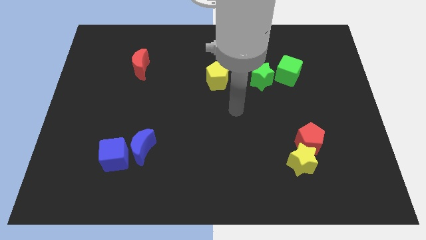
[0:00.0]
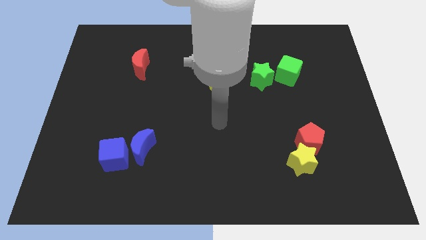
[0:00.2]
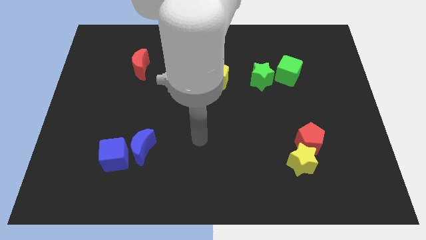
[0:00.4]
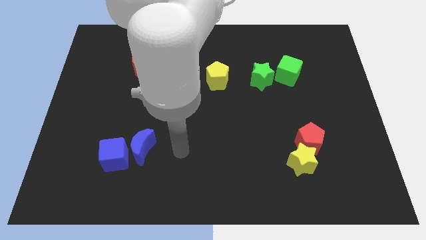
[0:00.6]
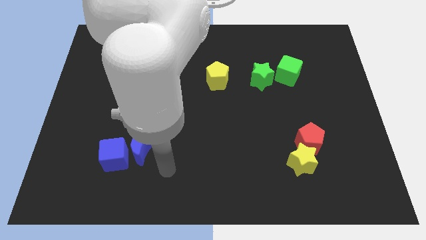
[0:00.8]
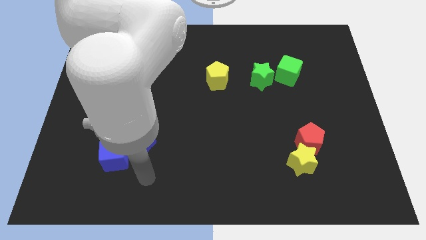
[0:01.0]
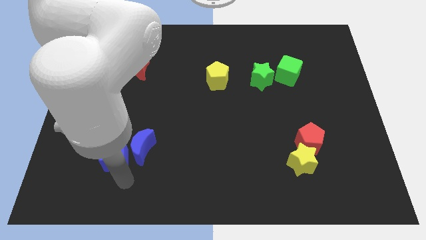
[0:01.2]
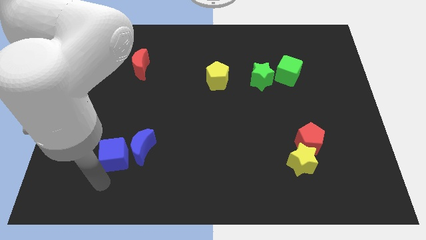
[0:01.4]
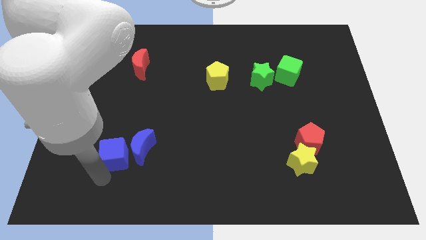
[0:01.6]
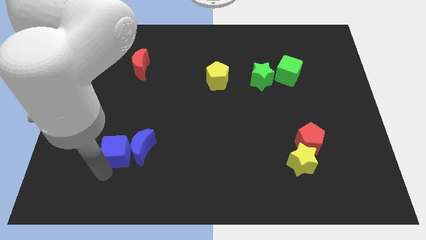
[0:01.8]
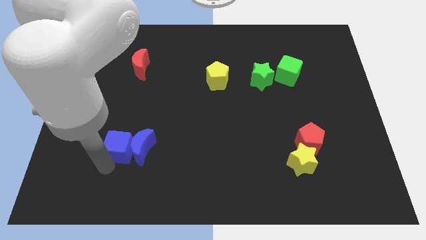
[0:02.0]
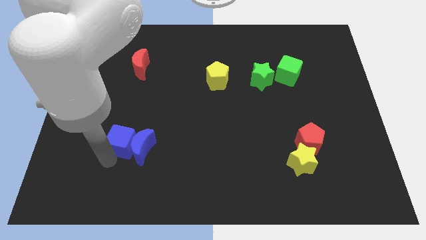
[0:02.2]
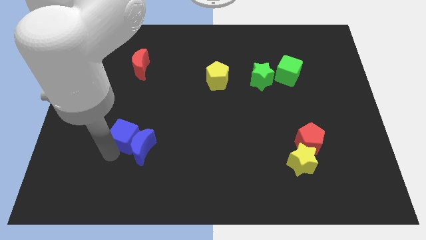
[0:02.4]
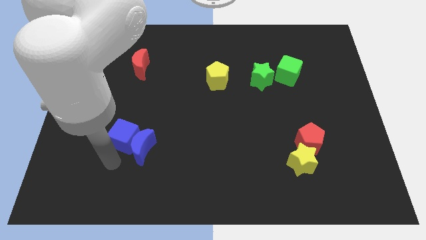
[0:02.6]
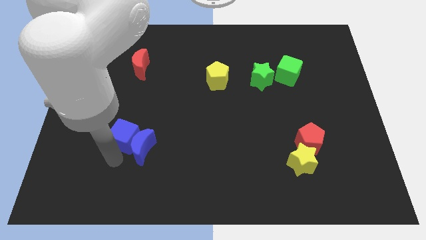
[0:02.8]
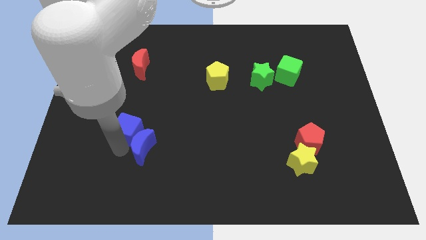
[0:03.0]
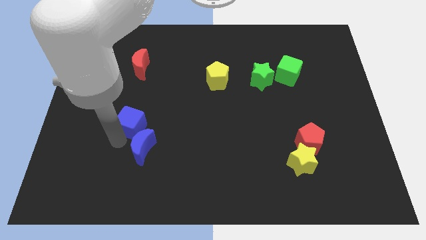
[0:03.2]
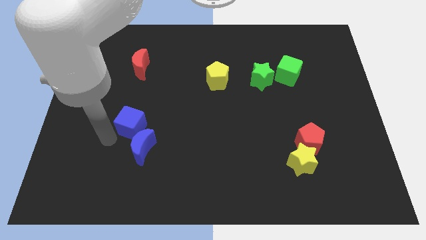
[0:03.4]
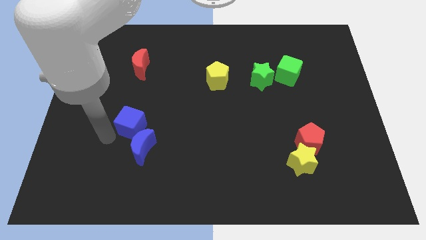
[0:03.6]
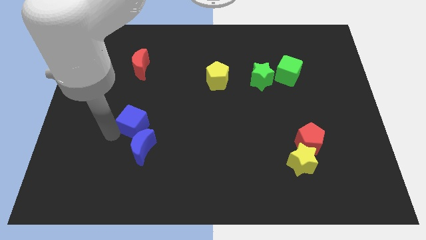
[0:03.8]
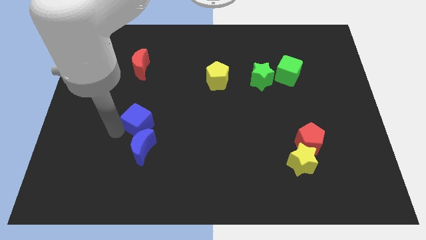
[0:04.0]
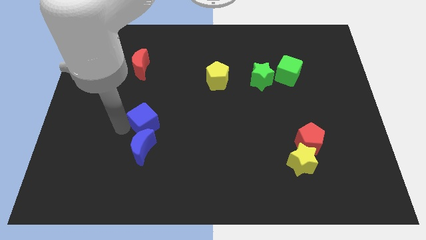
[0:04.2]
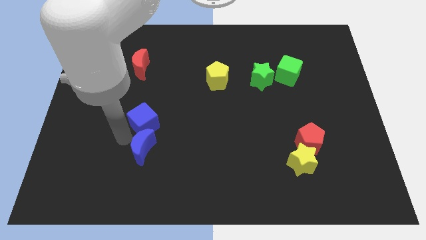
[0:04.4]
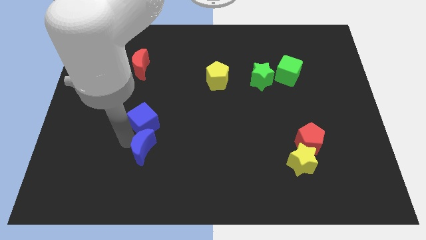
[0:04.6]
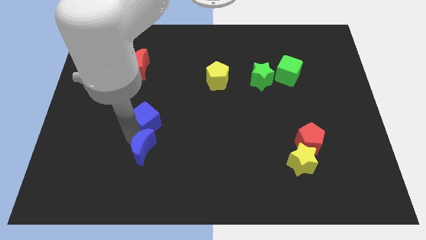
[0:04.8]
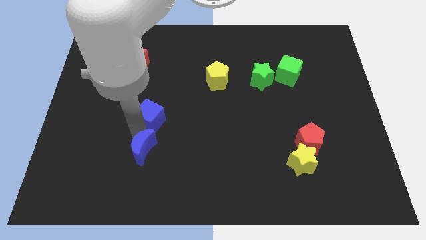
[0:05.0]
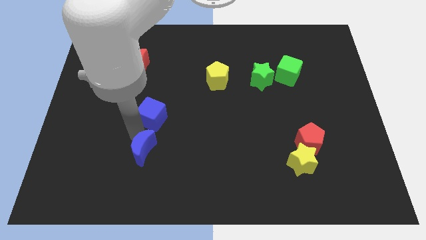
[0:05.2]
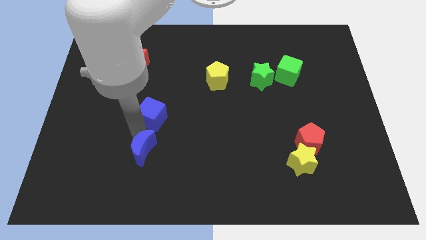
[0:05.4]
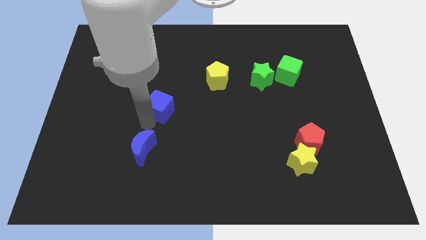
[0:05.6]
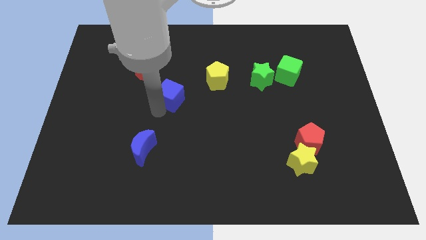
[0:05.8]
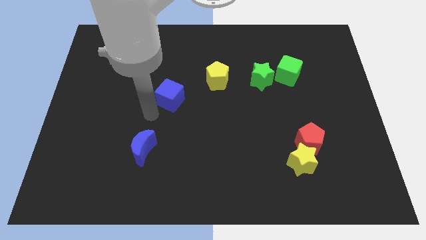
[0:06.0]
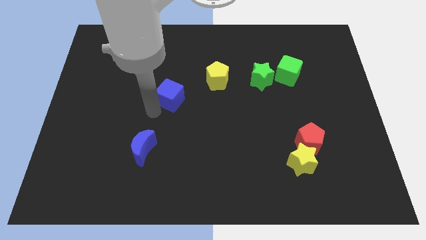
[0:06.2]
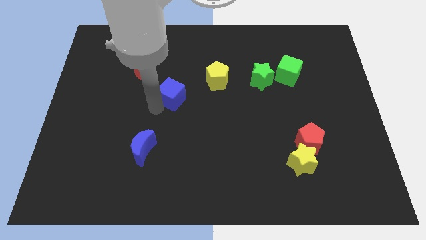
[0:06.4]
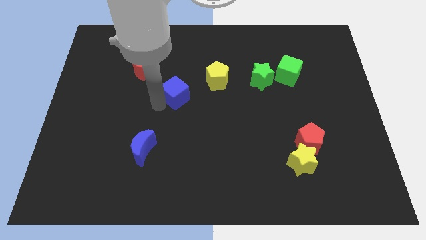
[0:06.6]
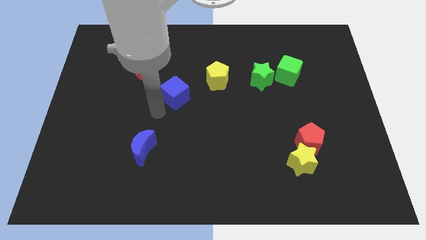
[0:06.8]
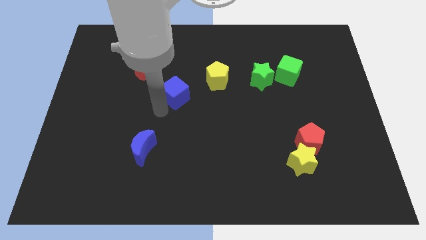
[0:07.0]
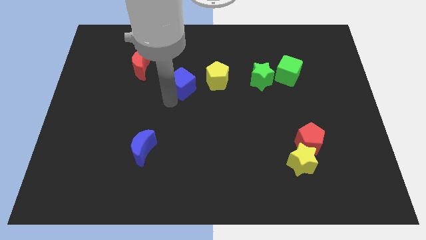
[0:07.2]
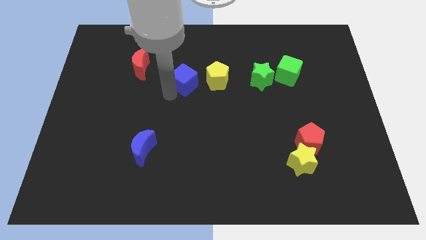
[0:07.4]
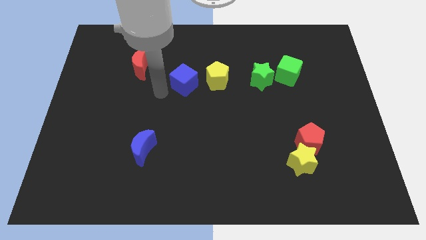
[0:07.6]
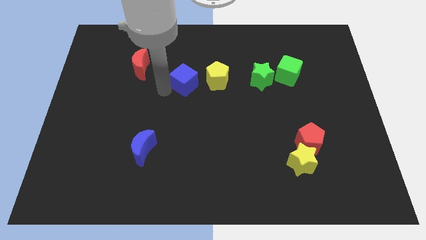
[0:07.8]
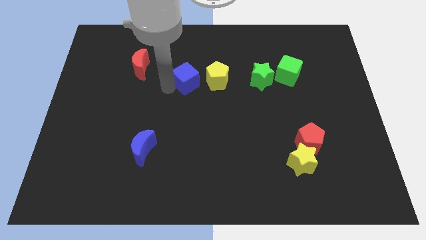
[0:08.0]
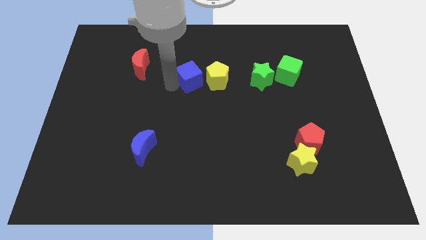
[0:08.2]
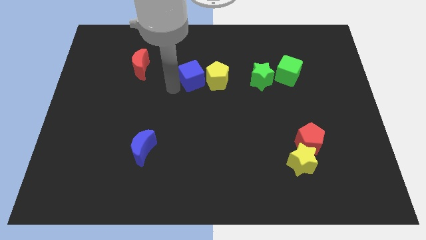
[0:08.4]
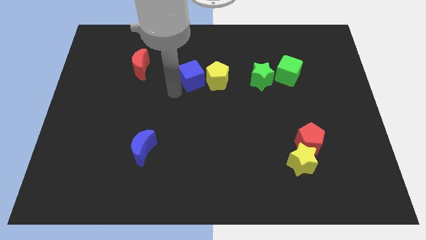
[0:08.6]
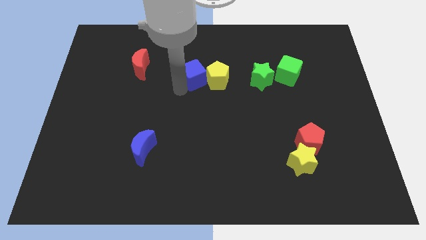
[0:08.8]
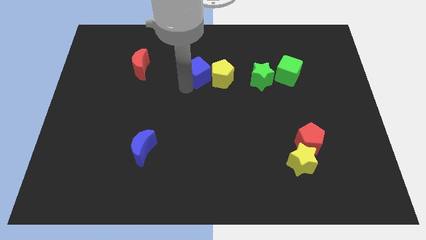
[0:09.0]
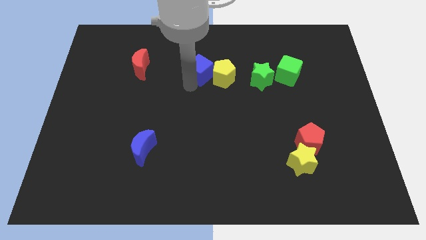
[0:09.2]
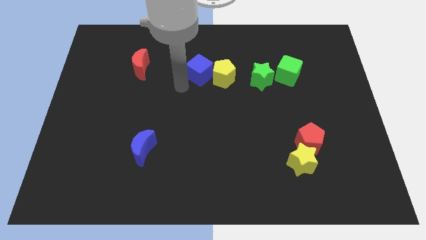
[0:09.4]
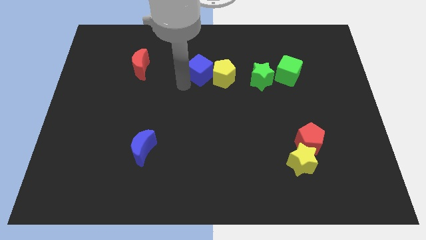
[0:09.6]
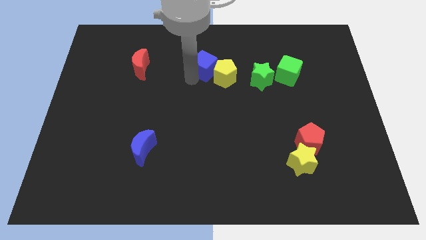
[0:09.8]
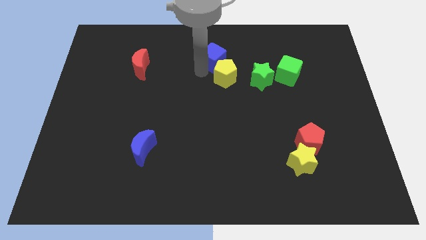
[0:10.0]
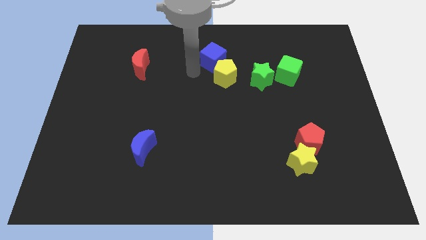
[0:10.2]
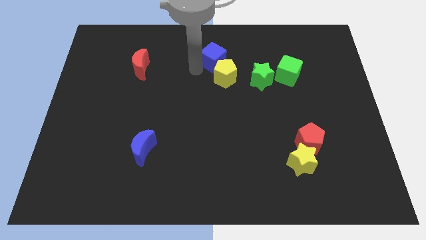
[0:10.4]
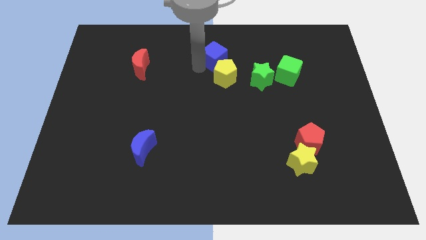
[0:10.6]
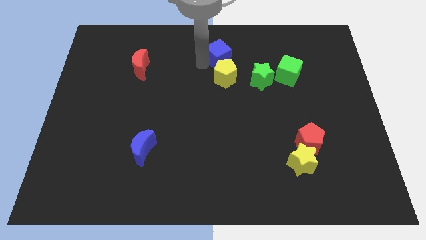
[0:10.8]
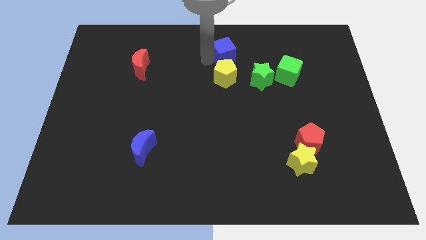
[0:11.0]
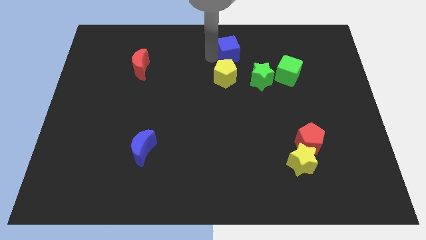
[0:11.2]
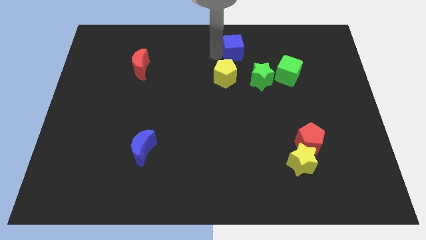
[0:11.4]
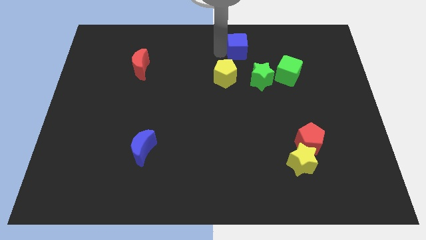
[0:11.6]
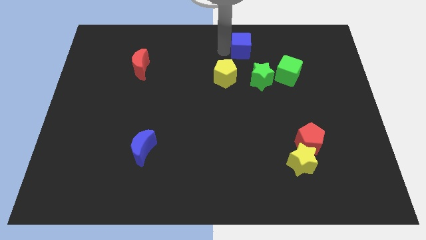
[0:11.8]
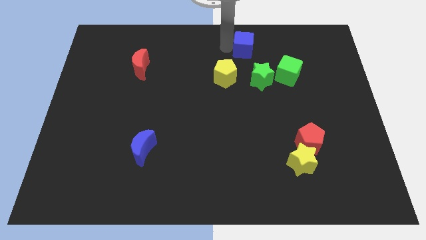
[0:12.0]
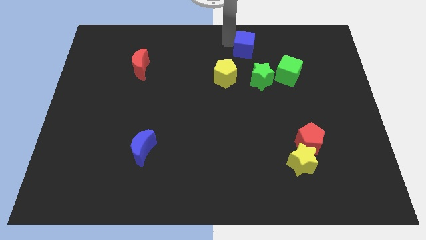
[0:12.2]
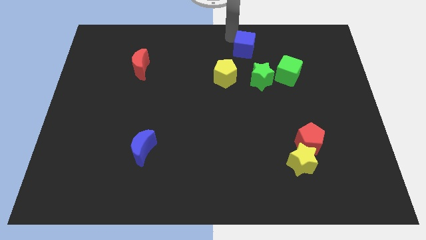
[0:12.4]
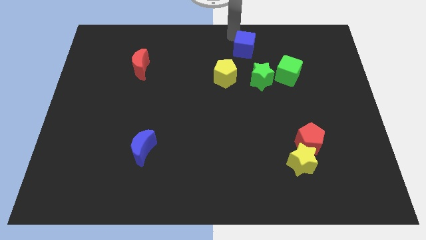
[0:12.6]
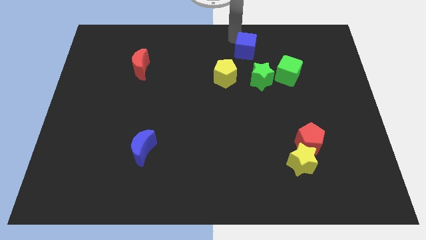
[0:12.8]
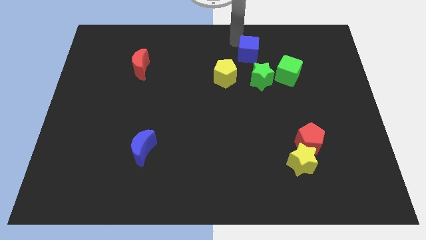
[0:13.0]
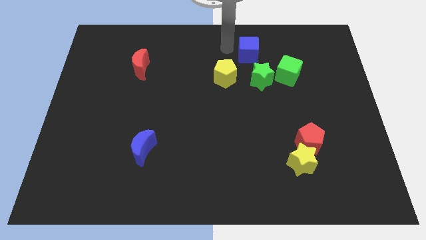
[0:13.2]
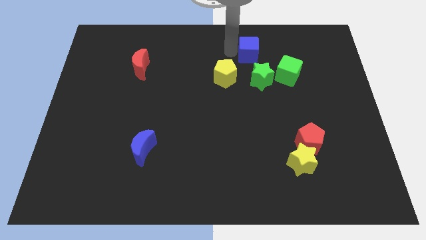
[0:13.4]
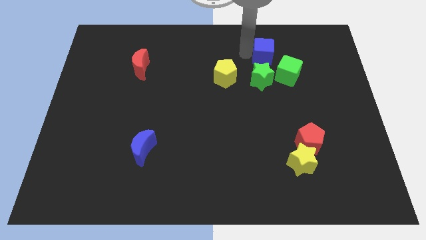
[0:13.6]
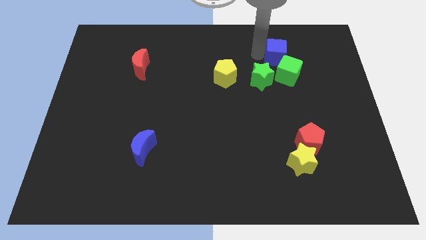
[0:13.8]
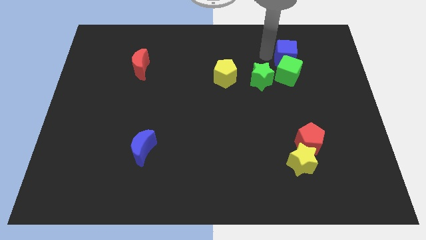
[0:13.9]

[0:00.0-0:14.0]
slide the blue cube to the top right of the green cube

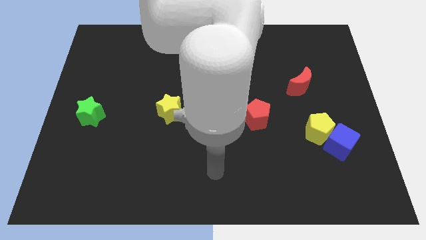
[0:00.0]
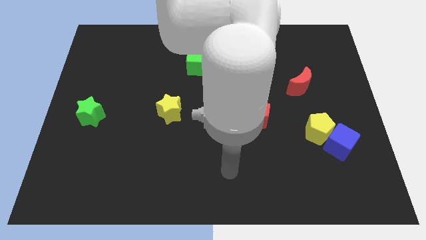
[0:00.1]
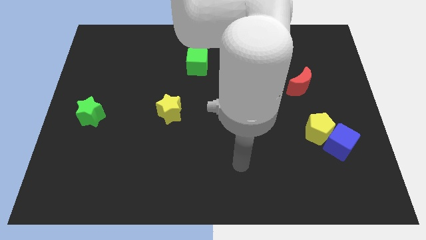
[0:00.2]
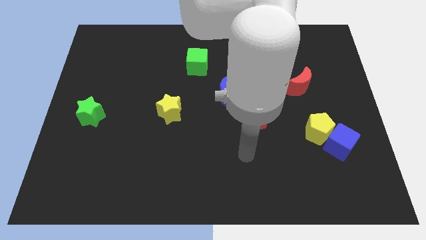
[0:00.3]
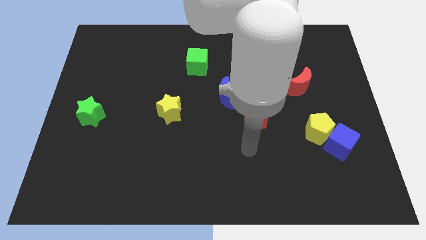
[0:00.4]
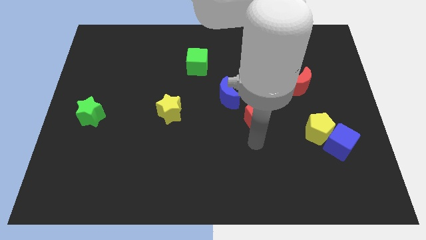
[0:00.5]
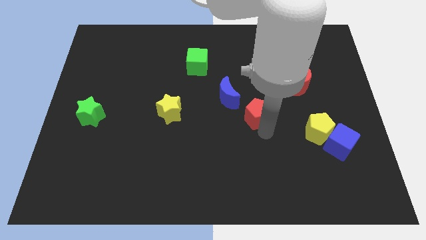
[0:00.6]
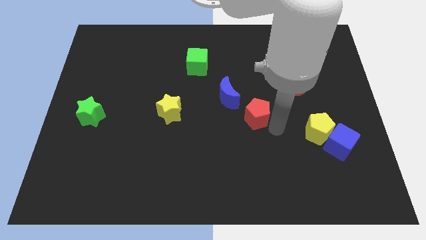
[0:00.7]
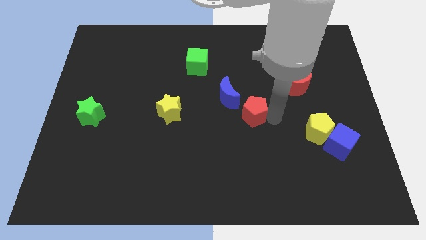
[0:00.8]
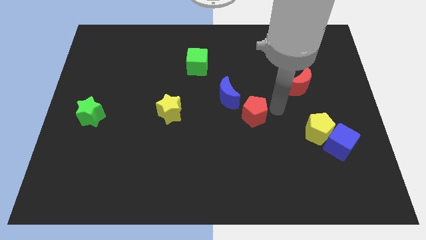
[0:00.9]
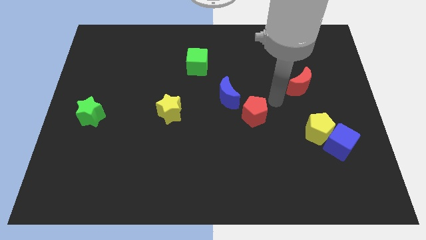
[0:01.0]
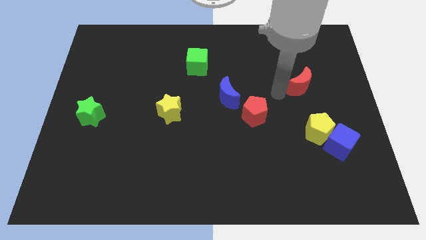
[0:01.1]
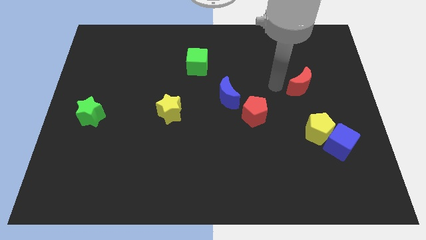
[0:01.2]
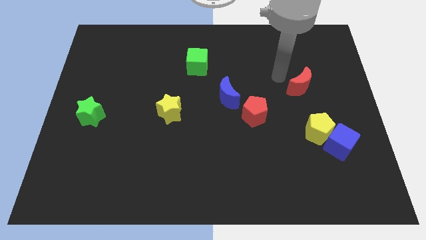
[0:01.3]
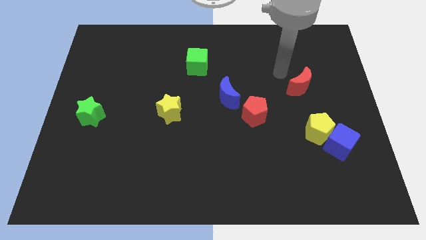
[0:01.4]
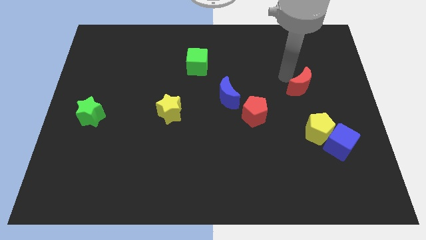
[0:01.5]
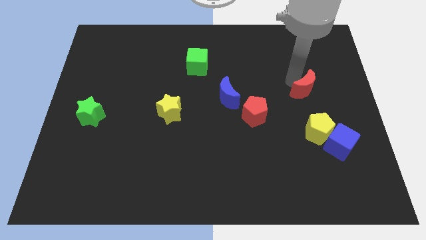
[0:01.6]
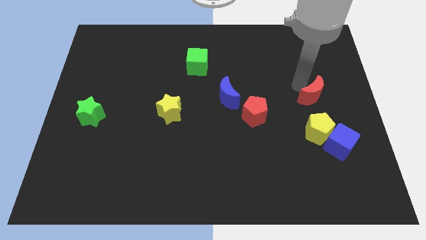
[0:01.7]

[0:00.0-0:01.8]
slide the red moon to the top of the blue cube
